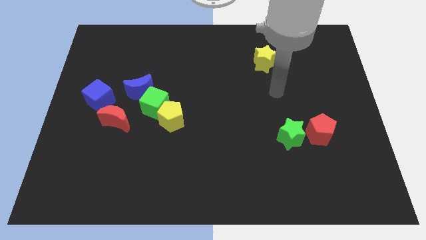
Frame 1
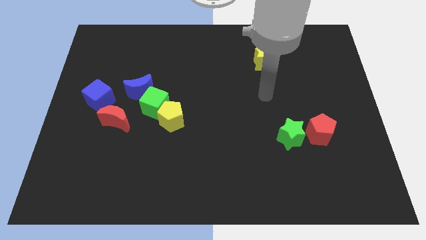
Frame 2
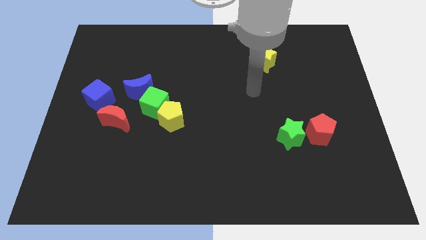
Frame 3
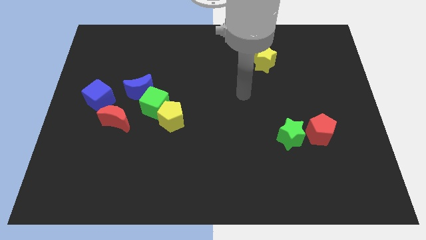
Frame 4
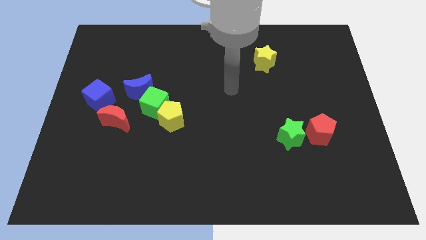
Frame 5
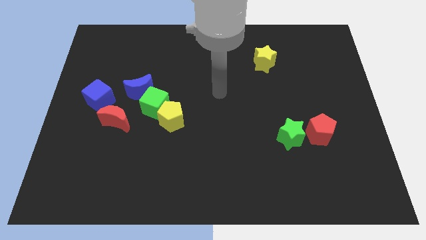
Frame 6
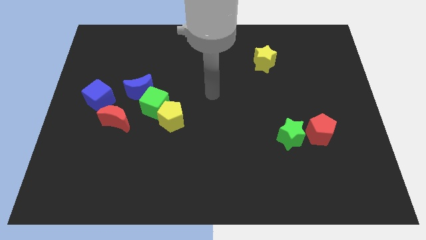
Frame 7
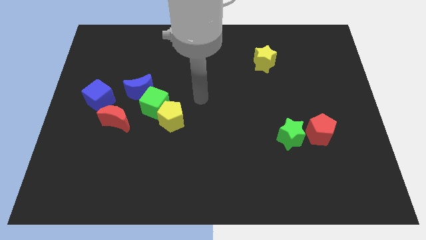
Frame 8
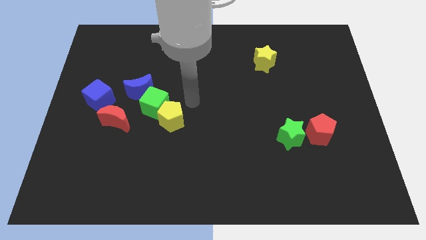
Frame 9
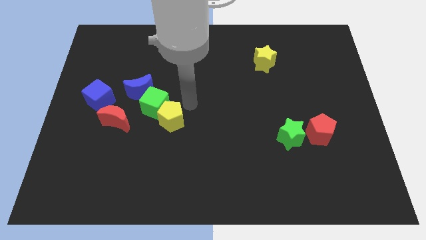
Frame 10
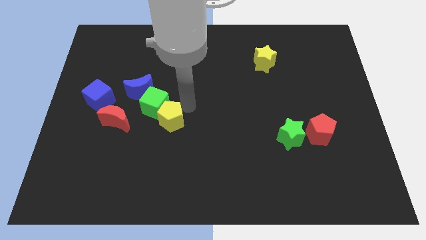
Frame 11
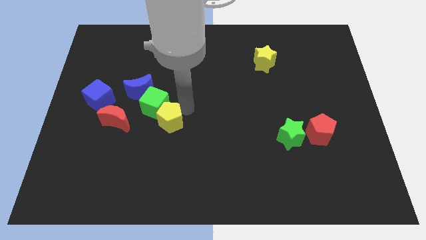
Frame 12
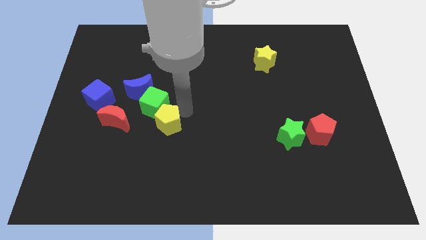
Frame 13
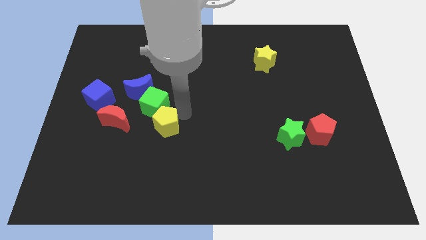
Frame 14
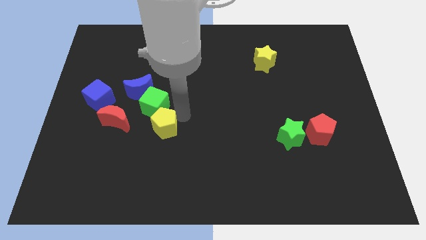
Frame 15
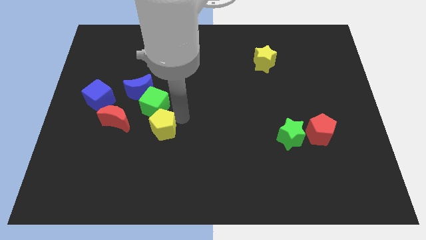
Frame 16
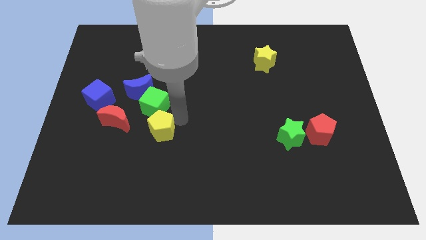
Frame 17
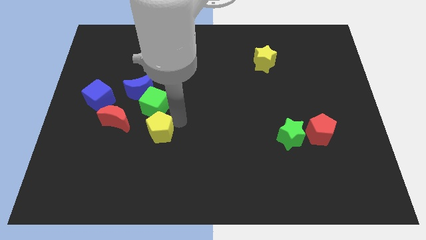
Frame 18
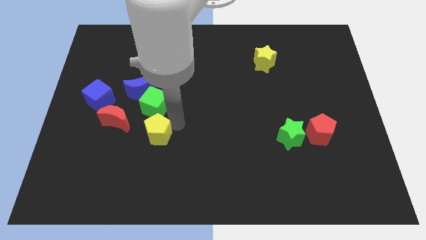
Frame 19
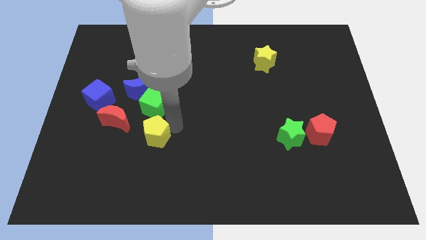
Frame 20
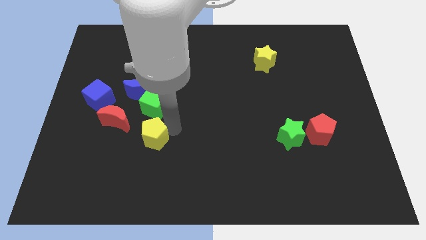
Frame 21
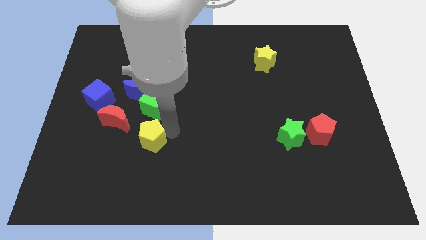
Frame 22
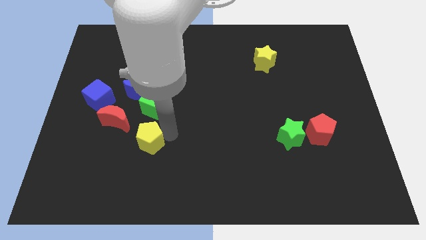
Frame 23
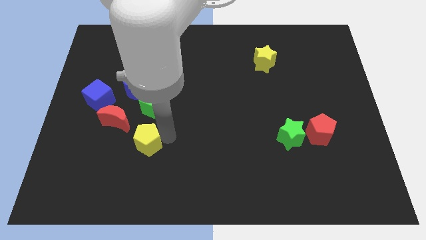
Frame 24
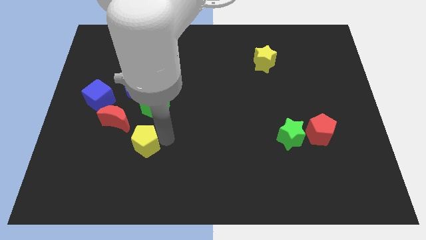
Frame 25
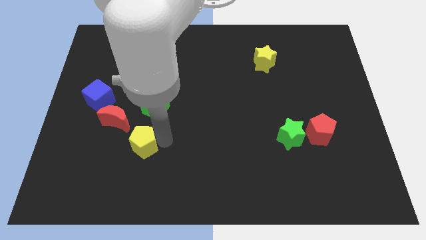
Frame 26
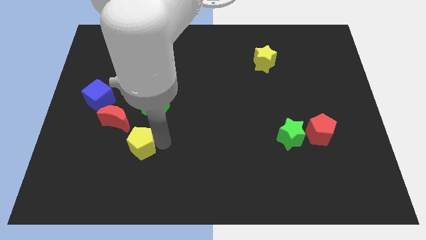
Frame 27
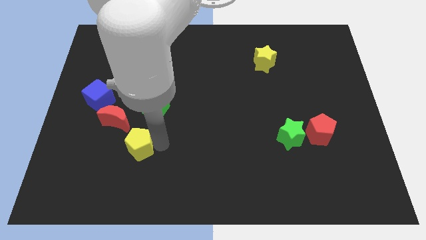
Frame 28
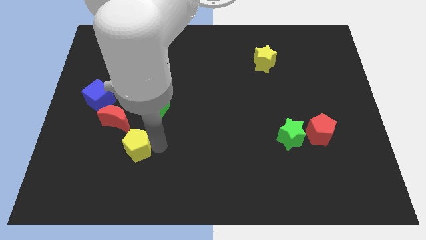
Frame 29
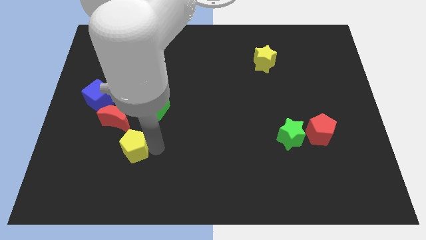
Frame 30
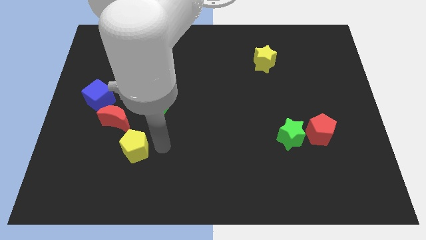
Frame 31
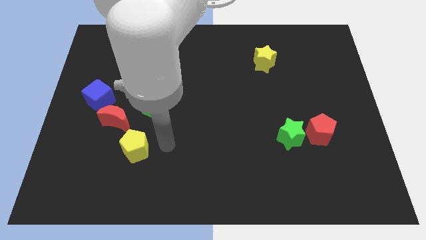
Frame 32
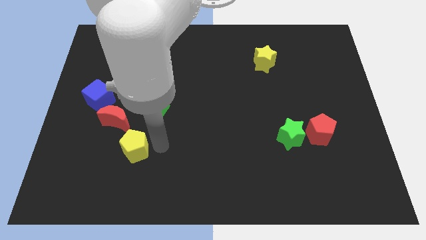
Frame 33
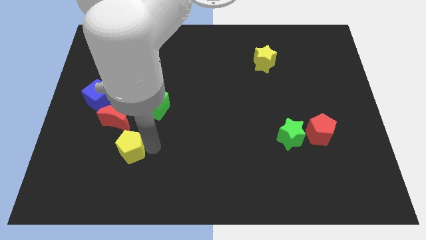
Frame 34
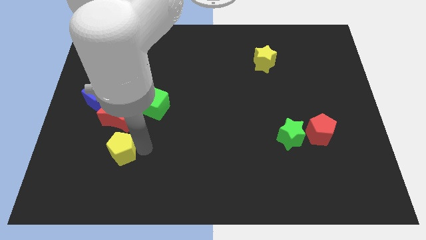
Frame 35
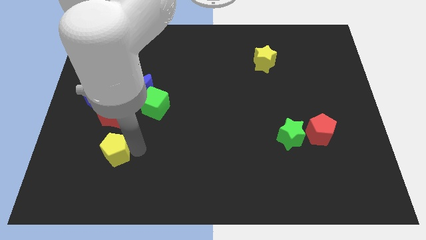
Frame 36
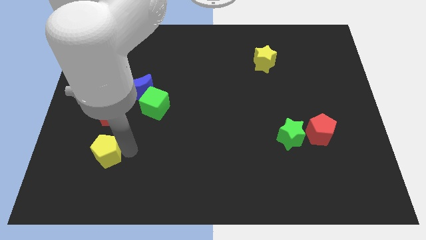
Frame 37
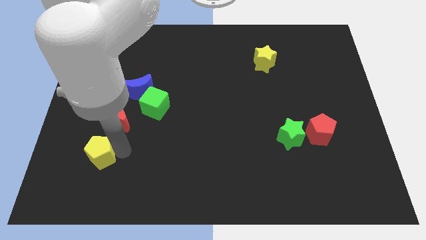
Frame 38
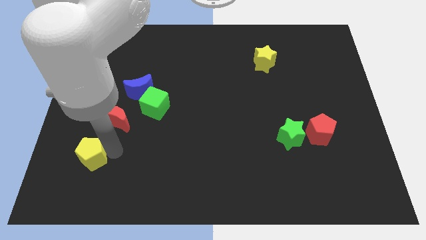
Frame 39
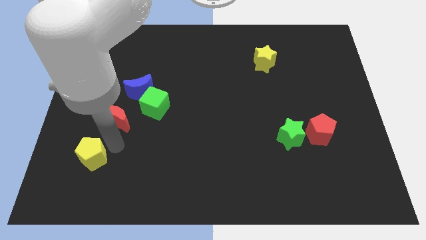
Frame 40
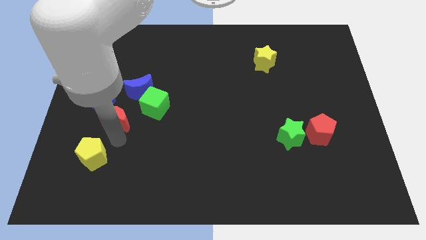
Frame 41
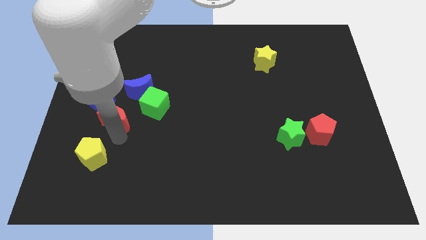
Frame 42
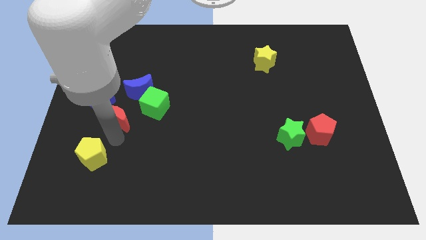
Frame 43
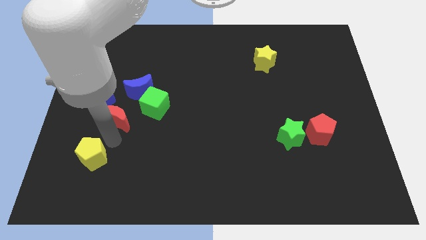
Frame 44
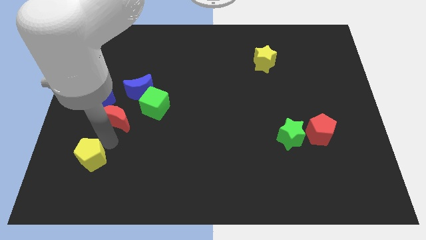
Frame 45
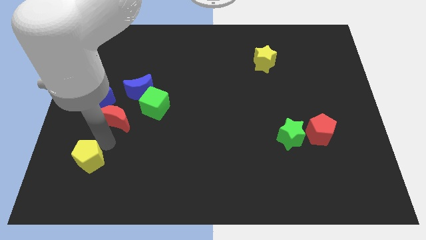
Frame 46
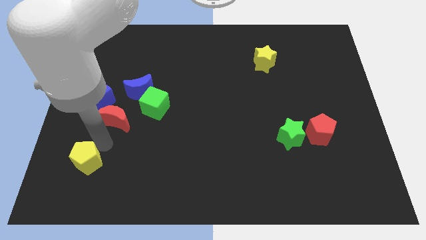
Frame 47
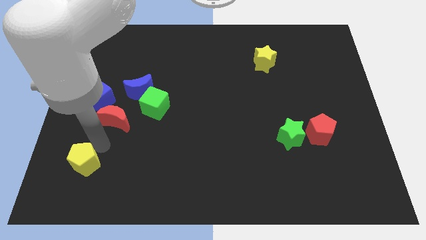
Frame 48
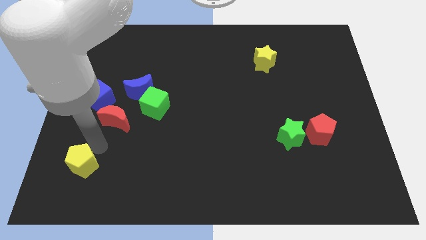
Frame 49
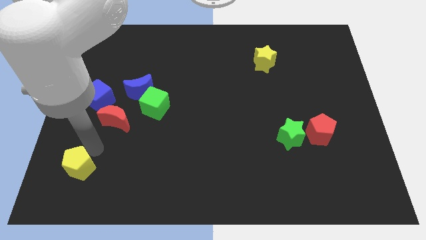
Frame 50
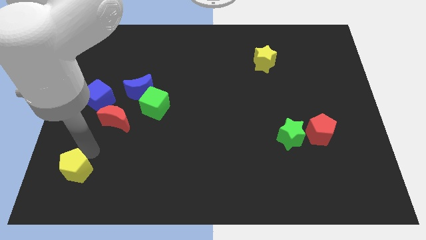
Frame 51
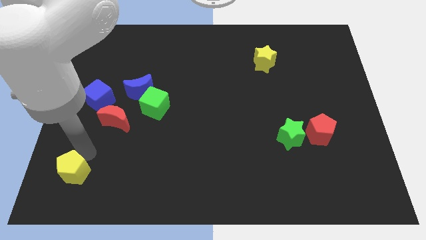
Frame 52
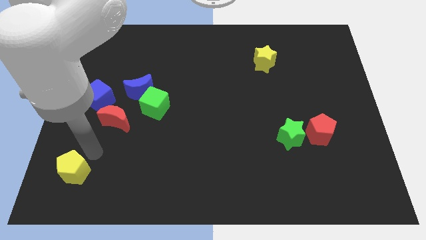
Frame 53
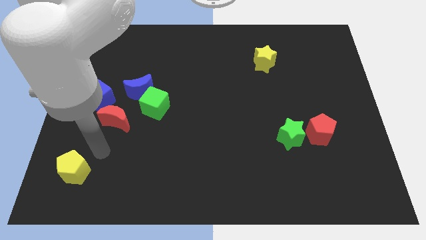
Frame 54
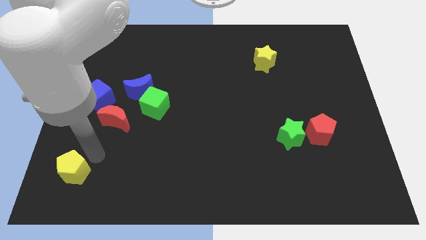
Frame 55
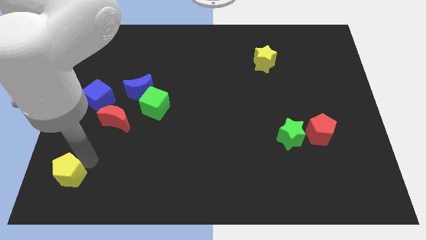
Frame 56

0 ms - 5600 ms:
move the yellow pentagon to the bottom left

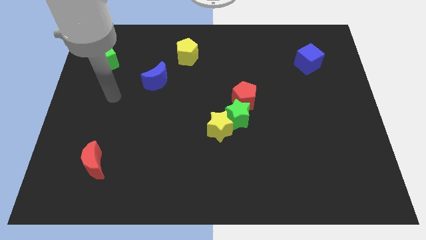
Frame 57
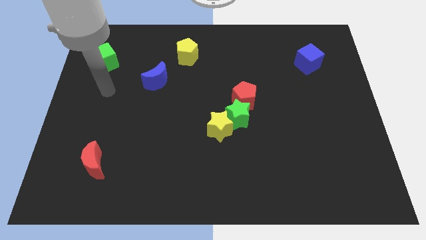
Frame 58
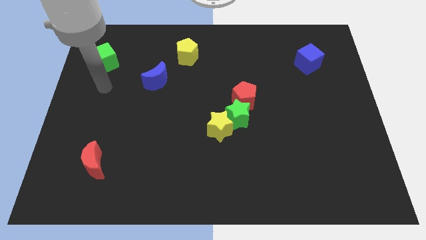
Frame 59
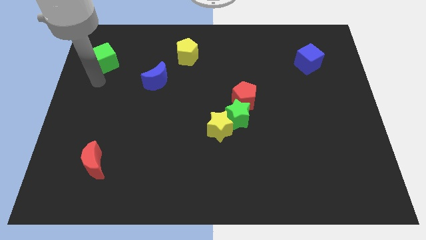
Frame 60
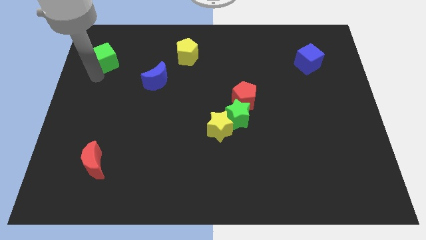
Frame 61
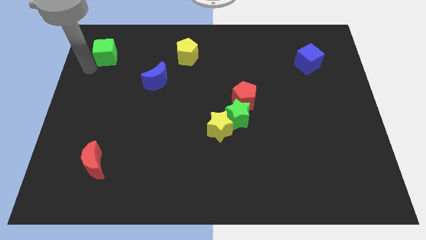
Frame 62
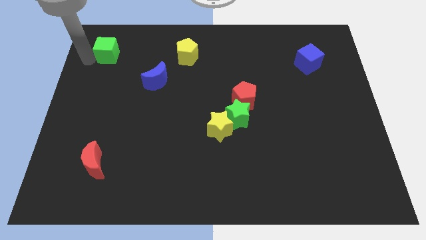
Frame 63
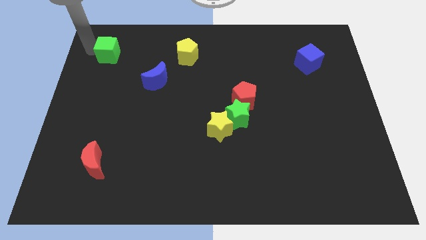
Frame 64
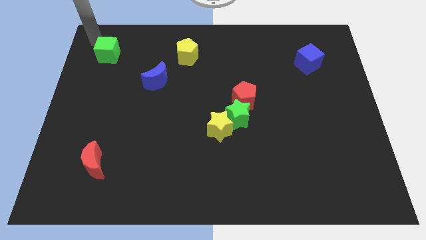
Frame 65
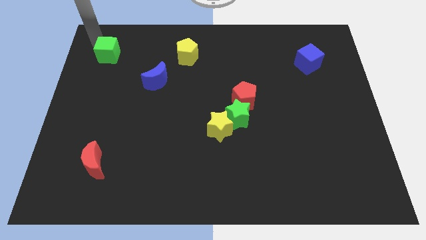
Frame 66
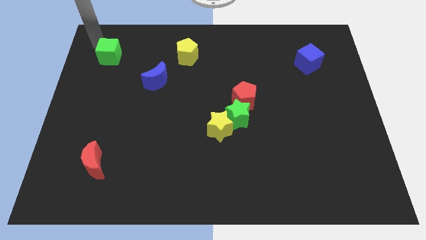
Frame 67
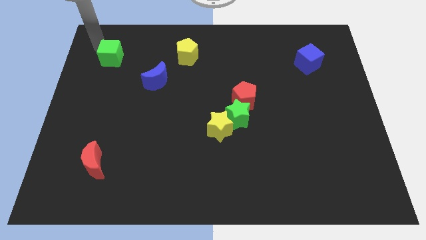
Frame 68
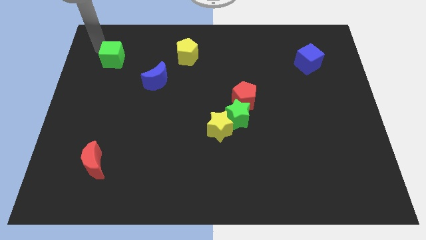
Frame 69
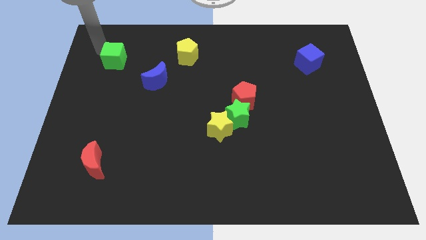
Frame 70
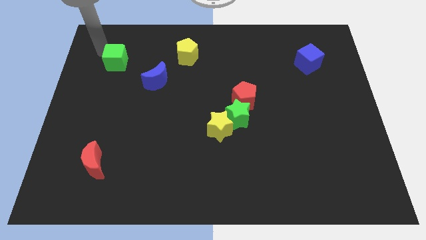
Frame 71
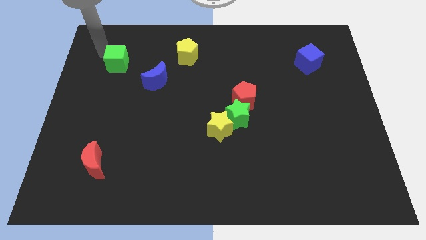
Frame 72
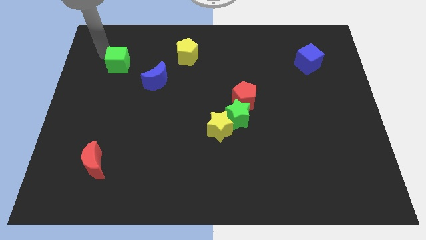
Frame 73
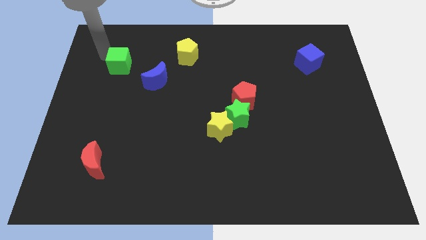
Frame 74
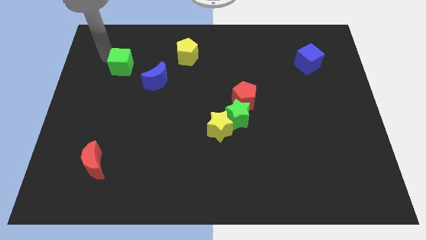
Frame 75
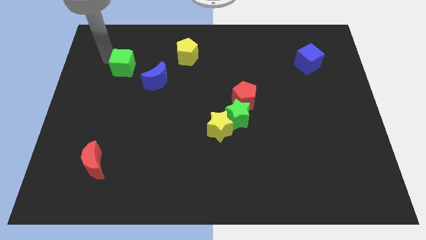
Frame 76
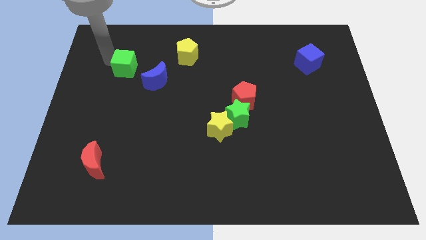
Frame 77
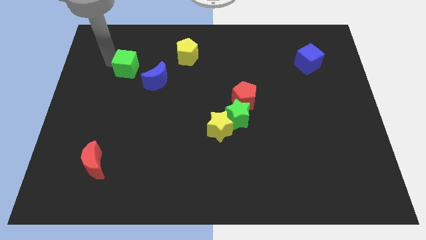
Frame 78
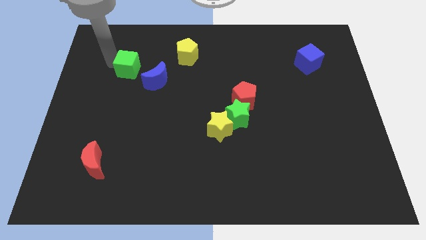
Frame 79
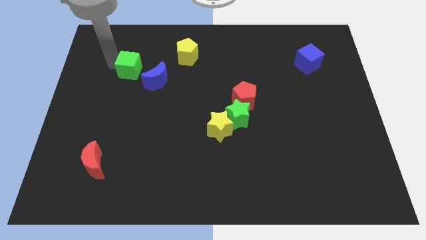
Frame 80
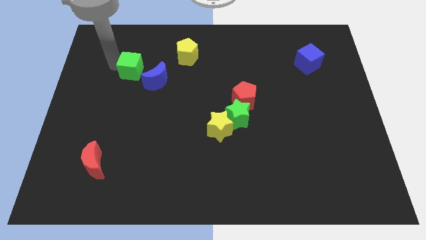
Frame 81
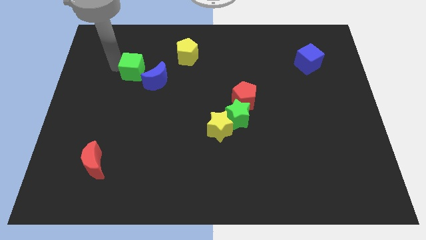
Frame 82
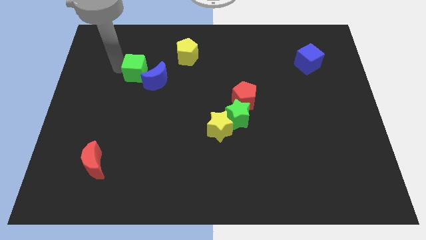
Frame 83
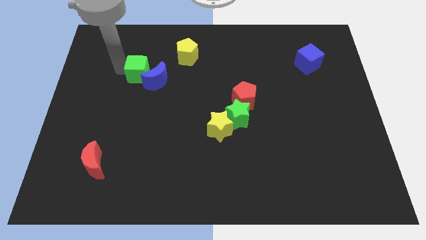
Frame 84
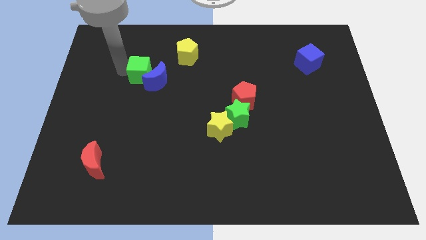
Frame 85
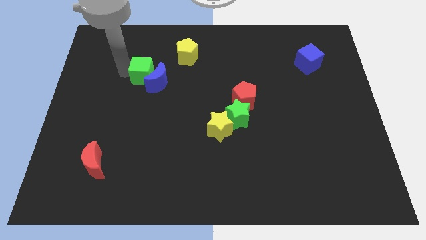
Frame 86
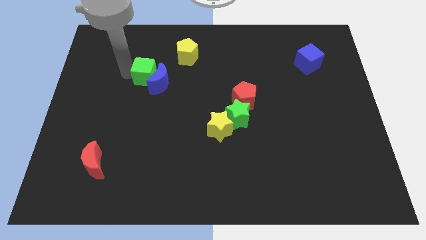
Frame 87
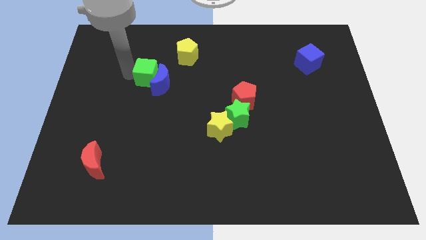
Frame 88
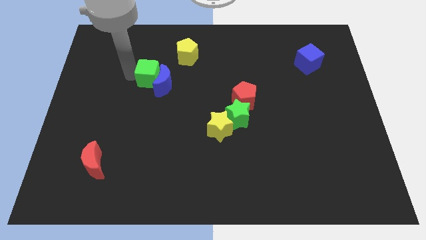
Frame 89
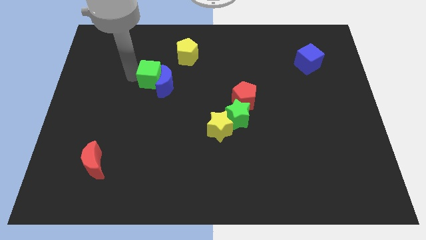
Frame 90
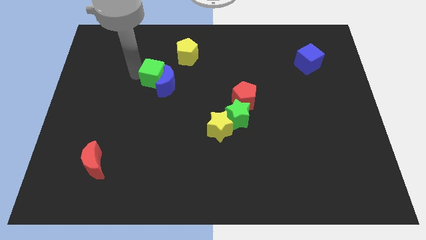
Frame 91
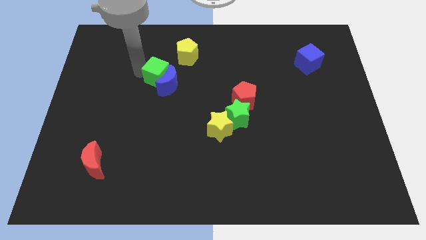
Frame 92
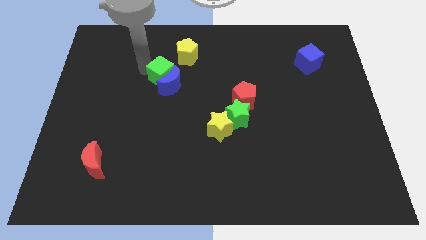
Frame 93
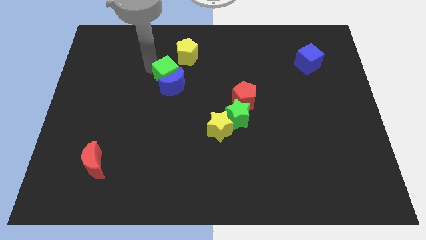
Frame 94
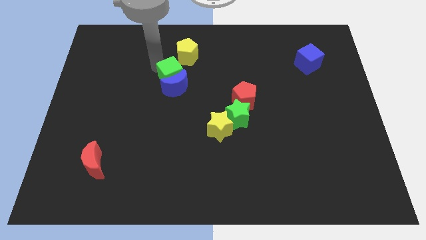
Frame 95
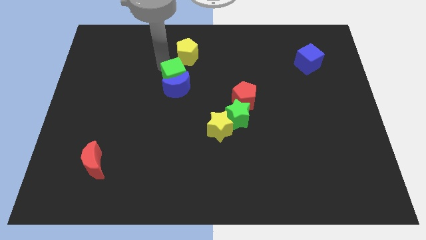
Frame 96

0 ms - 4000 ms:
slide the green cube to the middle of the board
